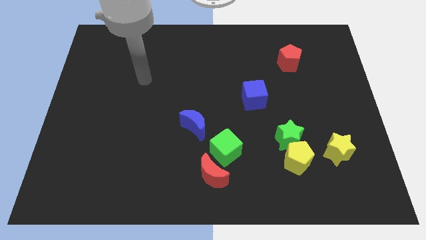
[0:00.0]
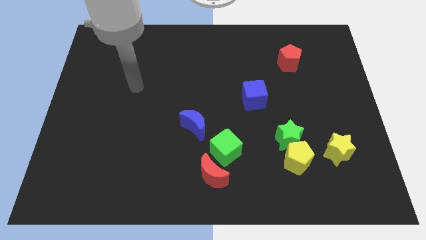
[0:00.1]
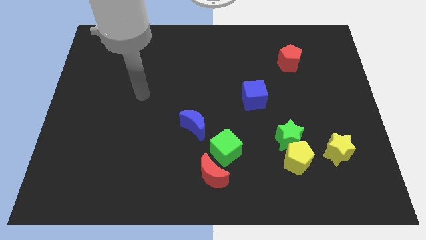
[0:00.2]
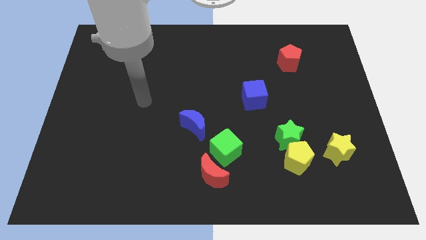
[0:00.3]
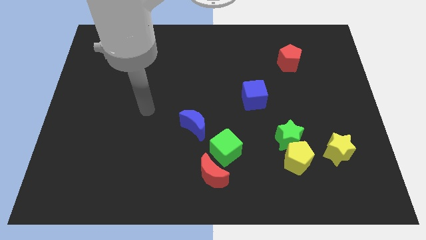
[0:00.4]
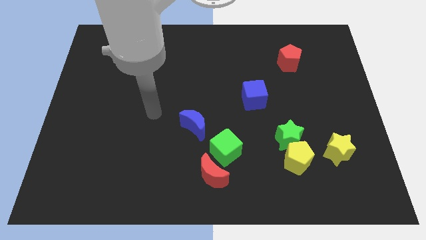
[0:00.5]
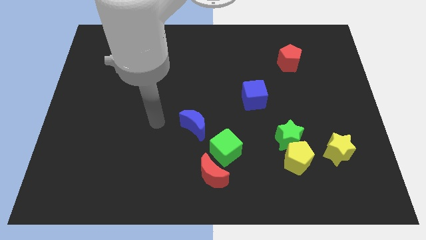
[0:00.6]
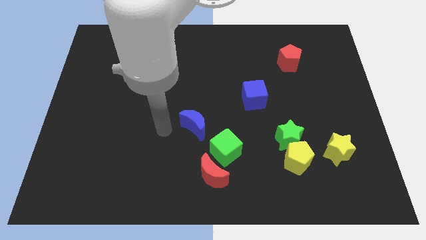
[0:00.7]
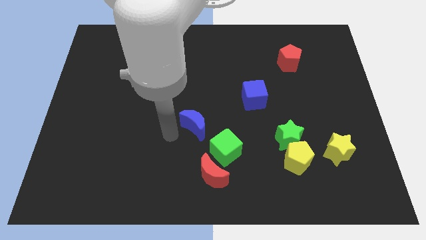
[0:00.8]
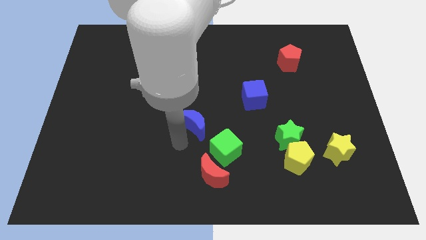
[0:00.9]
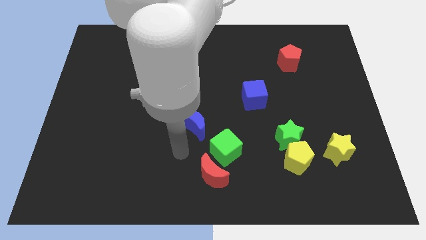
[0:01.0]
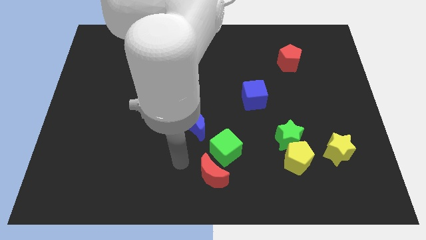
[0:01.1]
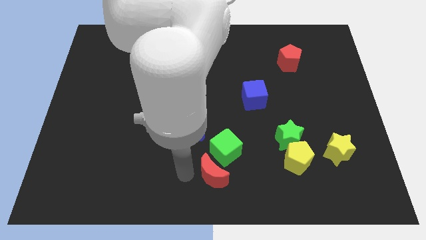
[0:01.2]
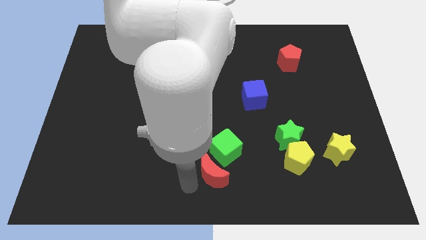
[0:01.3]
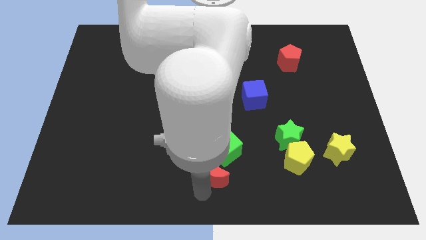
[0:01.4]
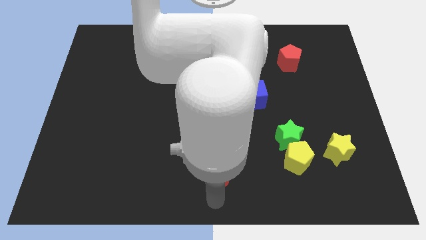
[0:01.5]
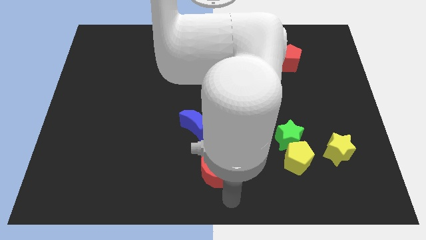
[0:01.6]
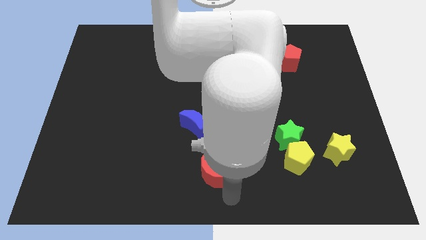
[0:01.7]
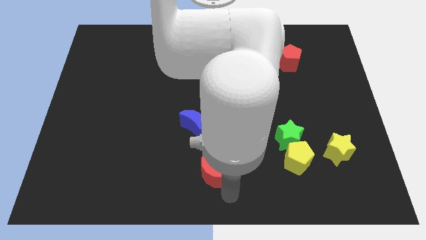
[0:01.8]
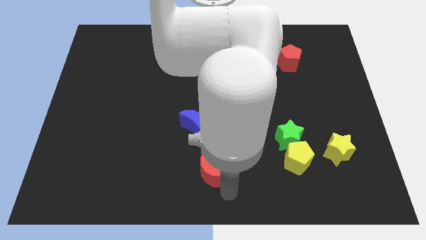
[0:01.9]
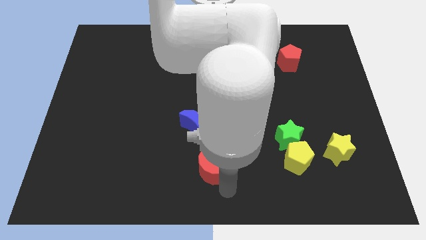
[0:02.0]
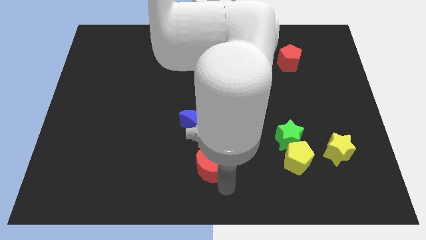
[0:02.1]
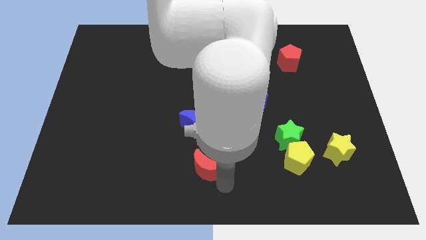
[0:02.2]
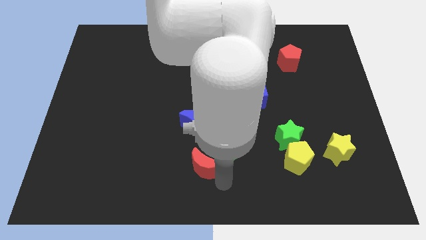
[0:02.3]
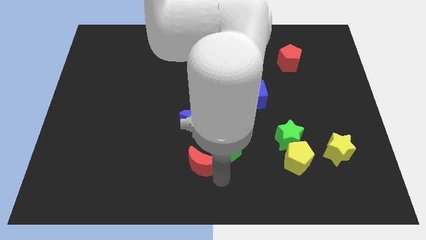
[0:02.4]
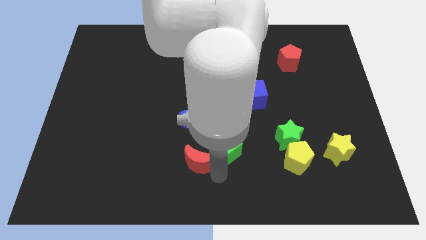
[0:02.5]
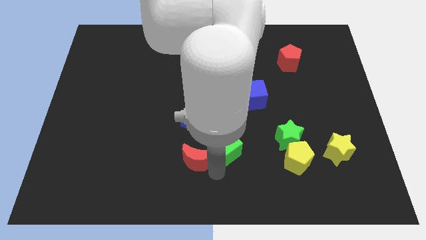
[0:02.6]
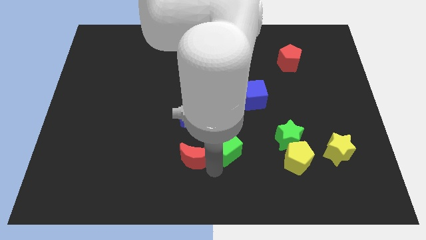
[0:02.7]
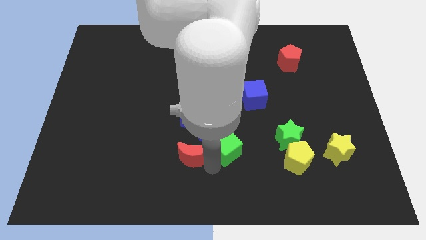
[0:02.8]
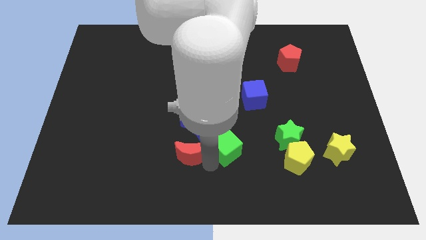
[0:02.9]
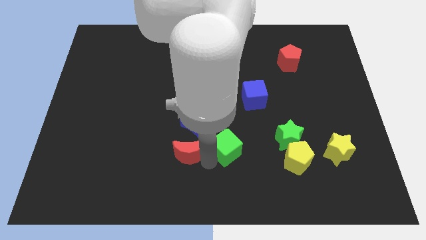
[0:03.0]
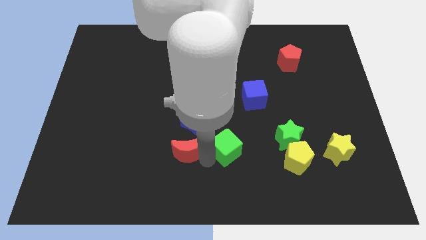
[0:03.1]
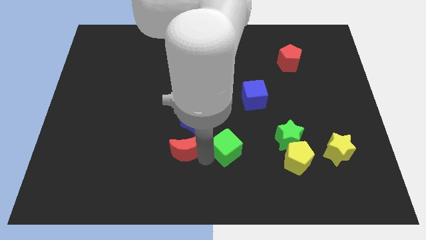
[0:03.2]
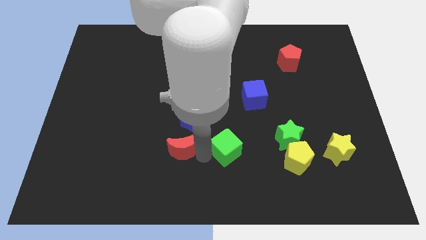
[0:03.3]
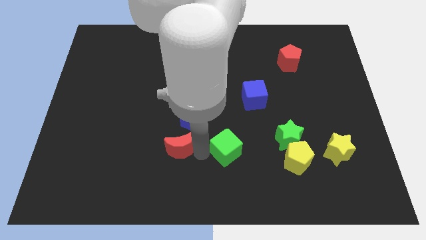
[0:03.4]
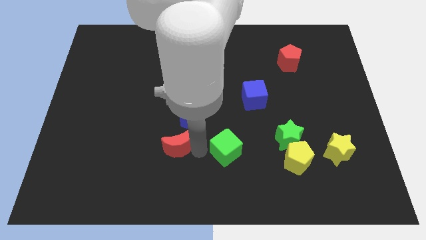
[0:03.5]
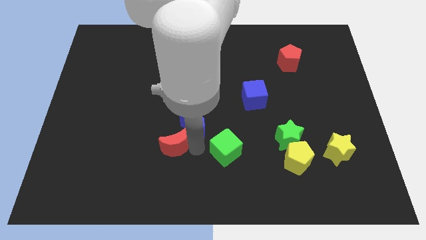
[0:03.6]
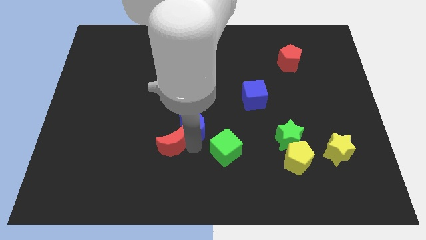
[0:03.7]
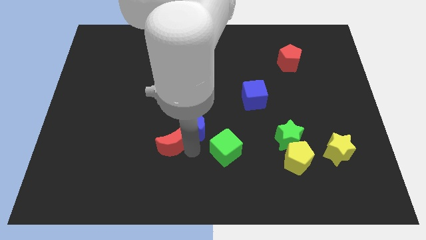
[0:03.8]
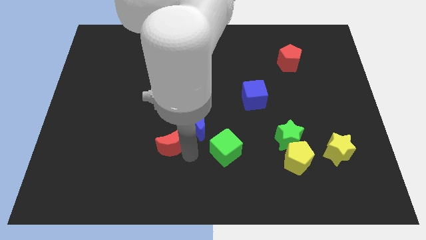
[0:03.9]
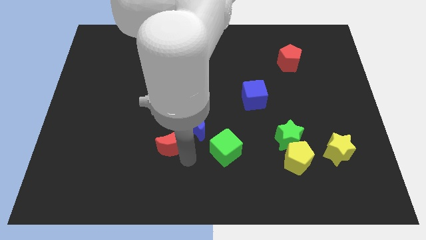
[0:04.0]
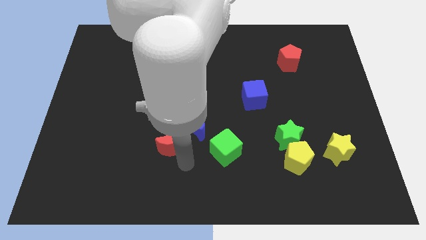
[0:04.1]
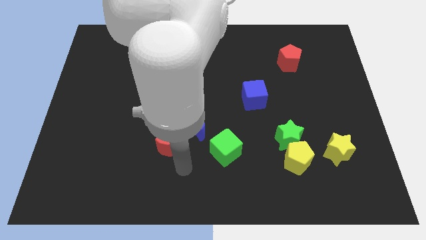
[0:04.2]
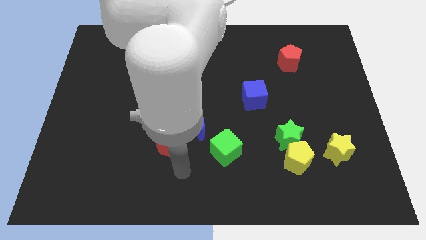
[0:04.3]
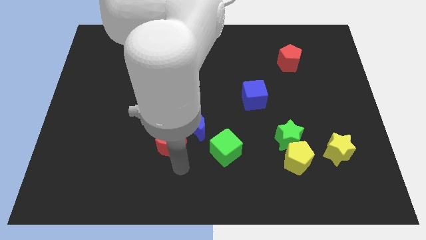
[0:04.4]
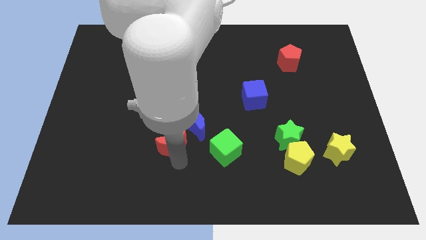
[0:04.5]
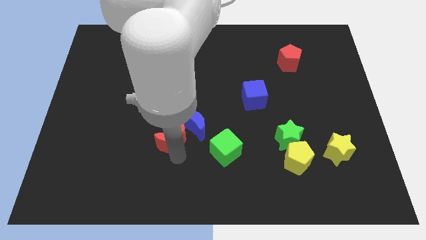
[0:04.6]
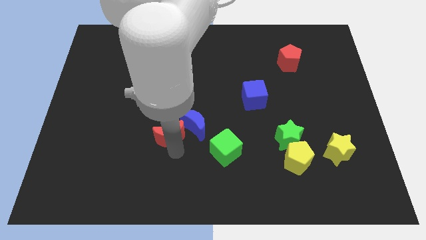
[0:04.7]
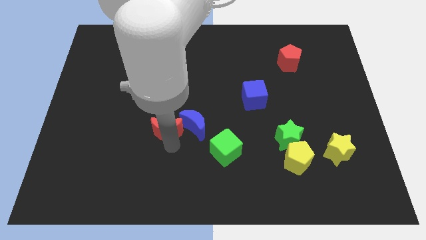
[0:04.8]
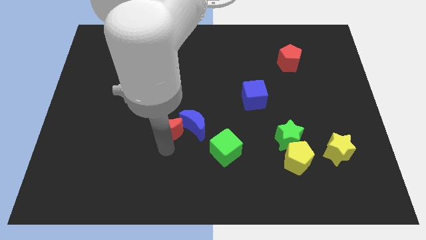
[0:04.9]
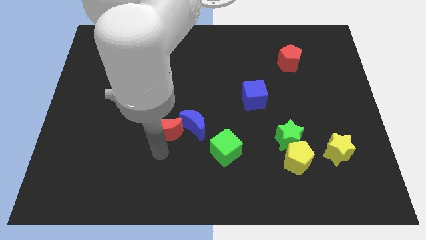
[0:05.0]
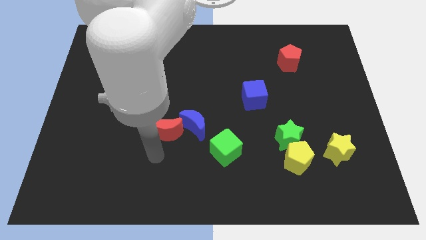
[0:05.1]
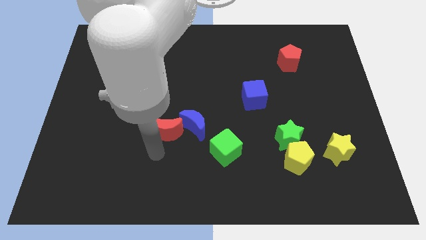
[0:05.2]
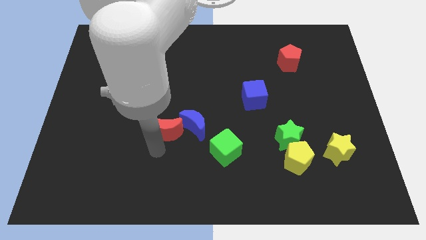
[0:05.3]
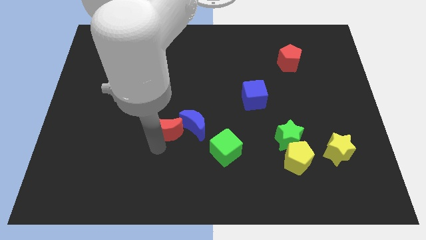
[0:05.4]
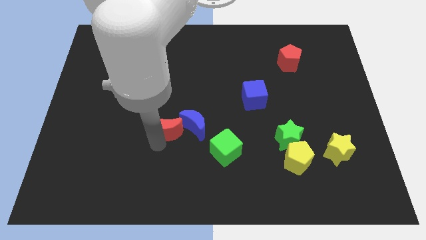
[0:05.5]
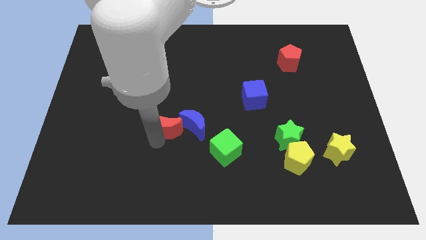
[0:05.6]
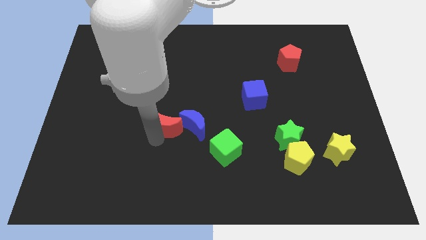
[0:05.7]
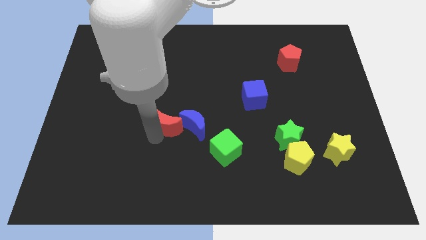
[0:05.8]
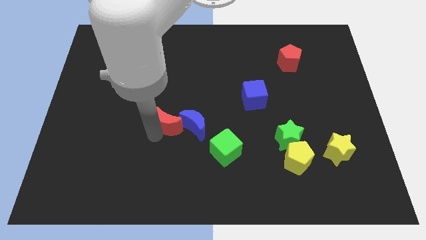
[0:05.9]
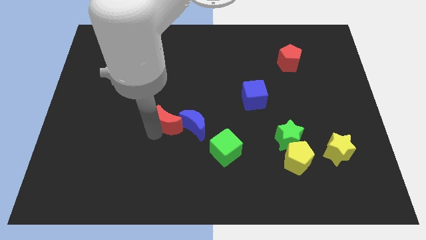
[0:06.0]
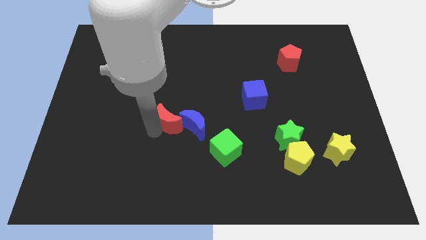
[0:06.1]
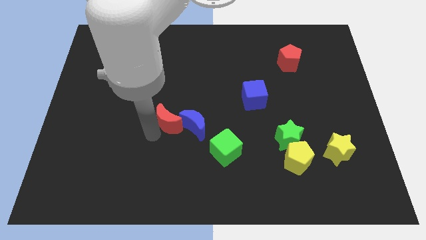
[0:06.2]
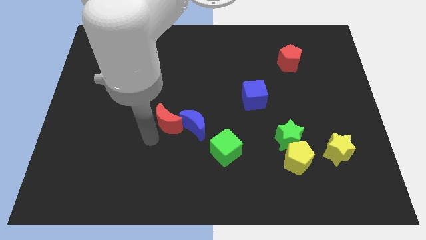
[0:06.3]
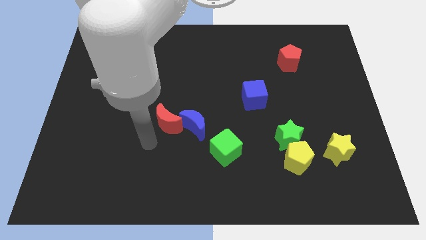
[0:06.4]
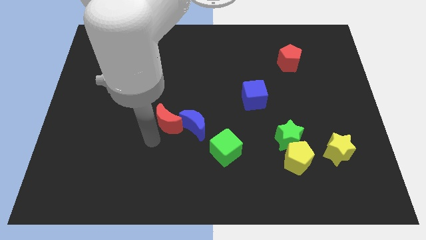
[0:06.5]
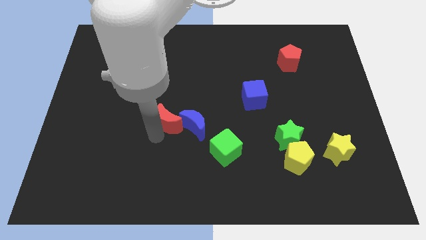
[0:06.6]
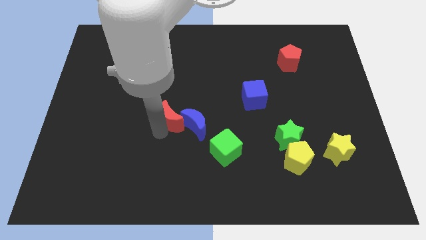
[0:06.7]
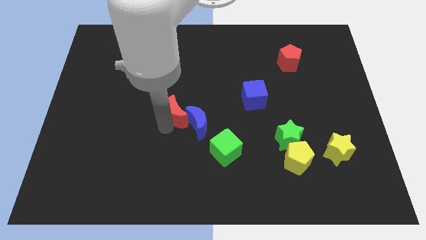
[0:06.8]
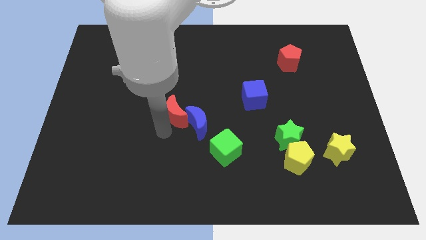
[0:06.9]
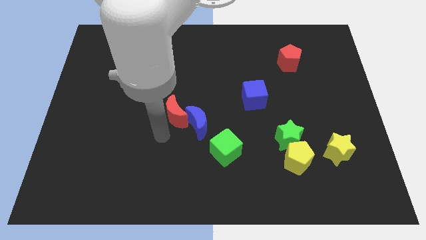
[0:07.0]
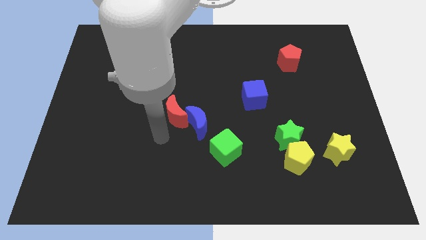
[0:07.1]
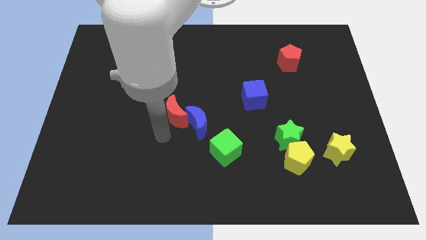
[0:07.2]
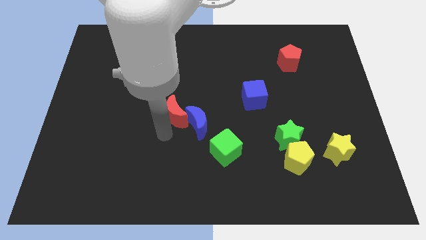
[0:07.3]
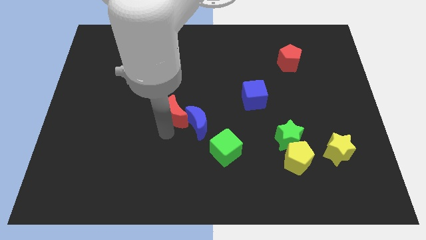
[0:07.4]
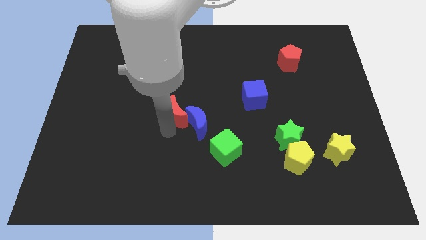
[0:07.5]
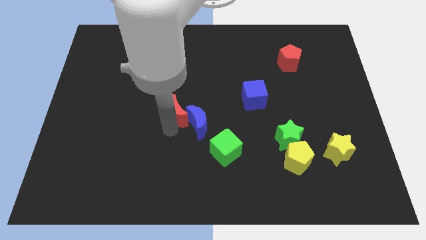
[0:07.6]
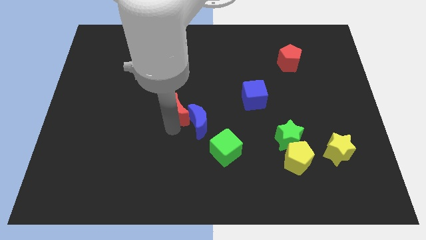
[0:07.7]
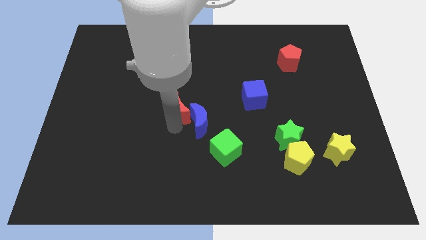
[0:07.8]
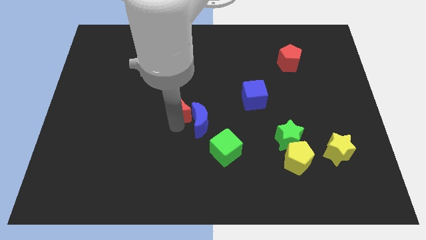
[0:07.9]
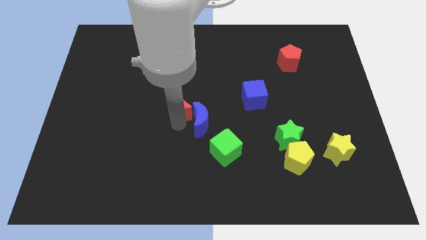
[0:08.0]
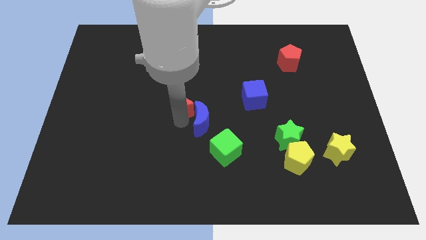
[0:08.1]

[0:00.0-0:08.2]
push the red moon above the blue moon
